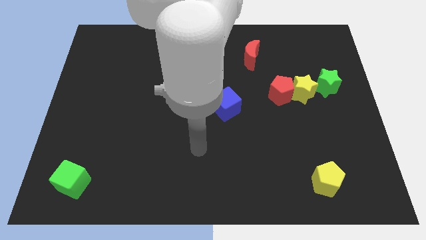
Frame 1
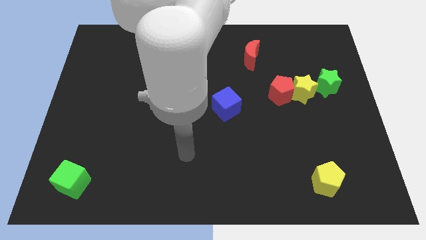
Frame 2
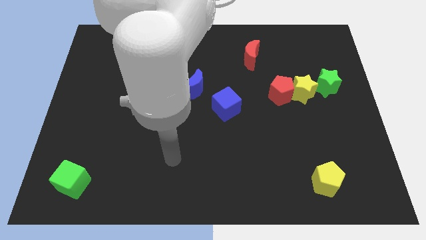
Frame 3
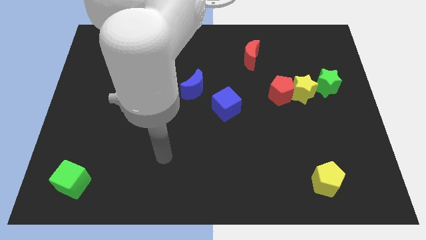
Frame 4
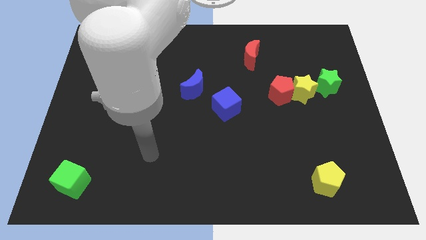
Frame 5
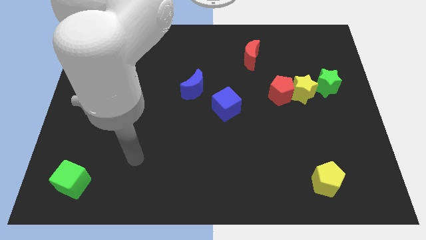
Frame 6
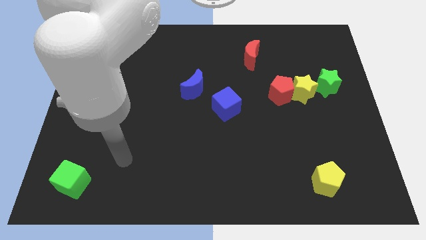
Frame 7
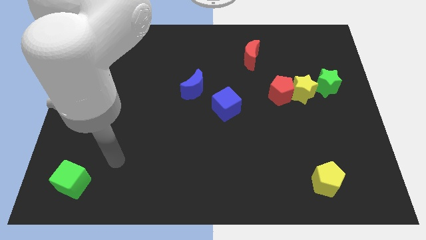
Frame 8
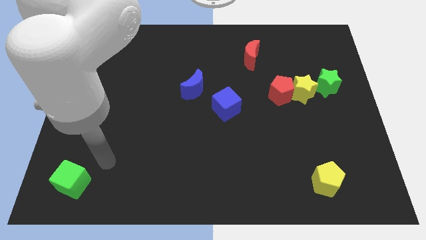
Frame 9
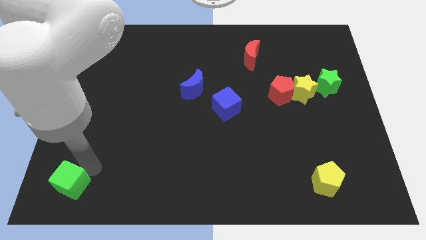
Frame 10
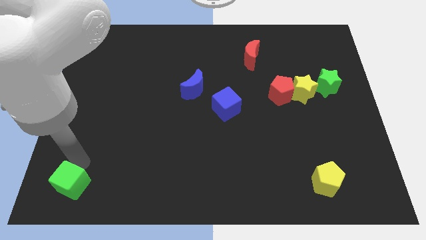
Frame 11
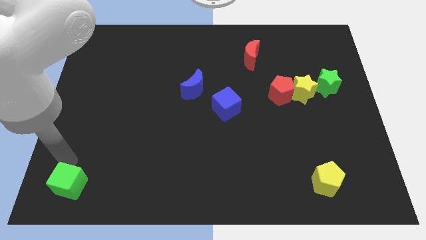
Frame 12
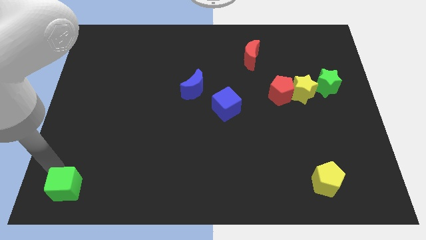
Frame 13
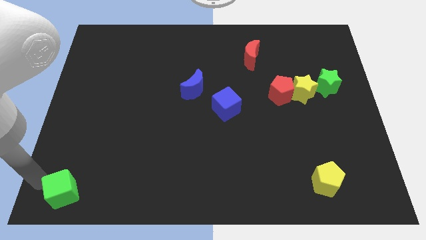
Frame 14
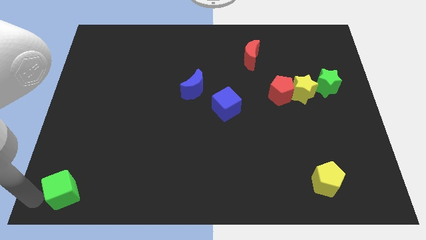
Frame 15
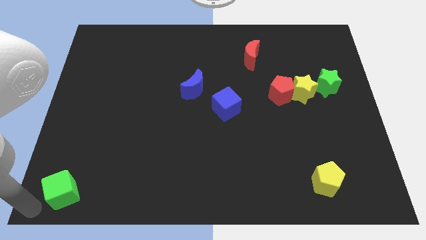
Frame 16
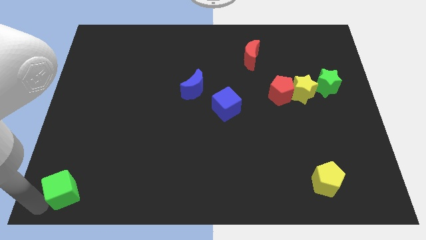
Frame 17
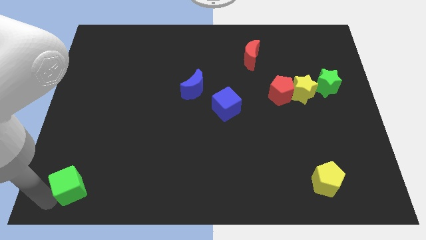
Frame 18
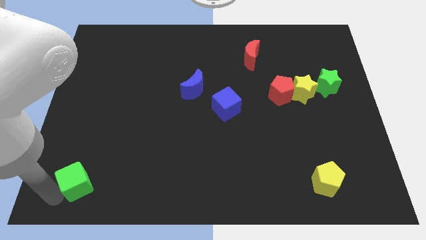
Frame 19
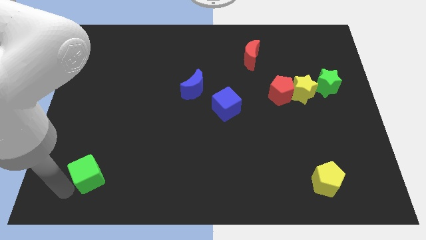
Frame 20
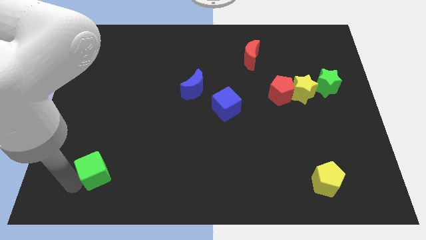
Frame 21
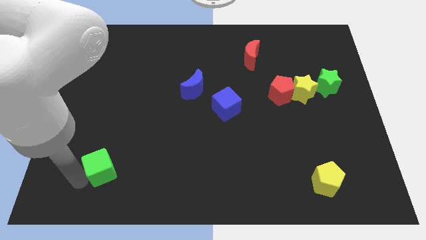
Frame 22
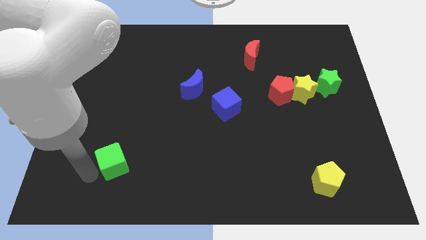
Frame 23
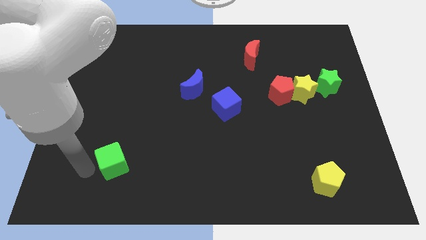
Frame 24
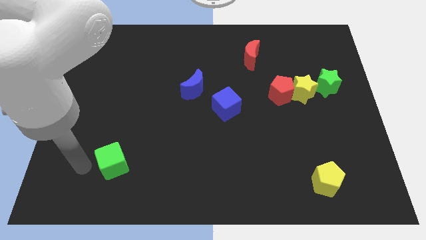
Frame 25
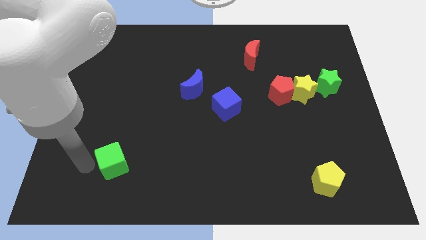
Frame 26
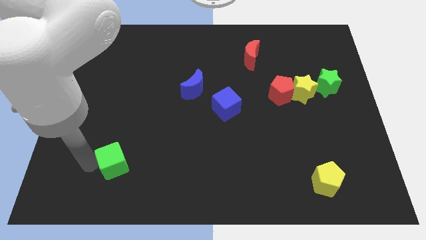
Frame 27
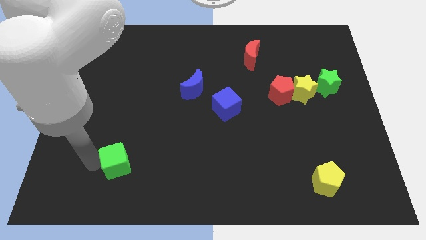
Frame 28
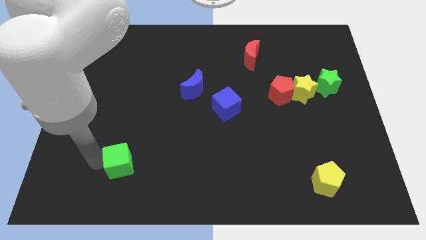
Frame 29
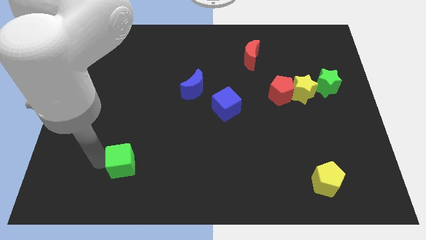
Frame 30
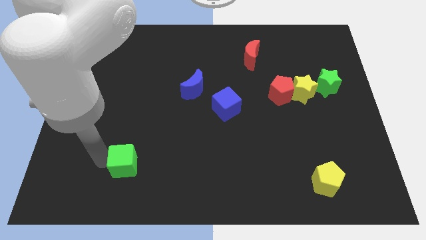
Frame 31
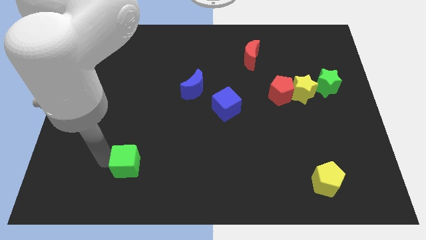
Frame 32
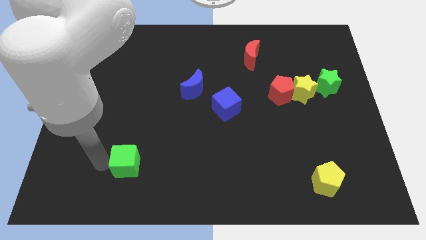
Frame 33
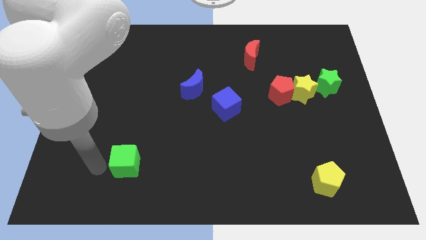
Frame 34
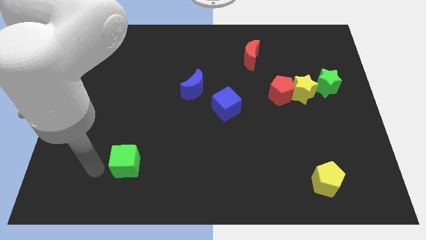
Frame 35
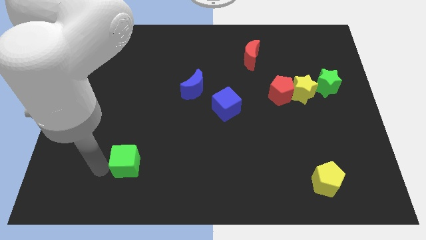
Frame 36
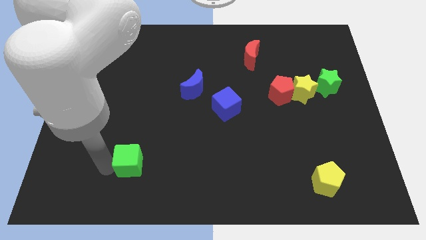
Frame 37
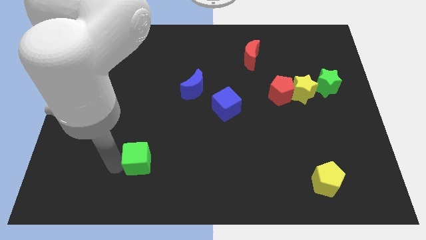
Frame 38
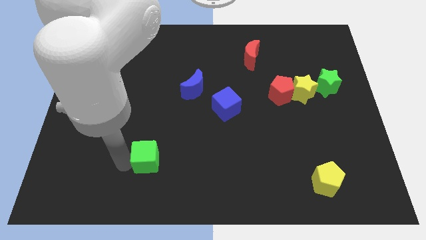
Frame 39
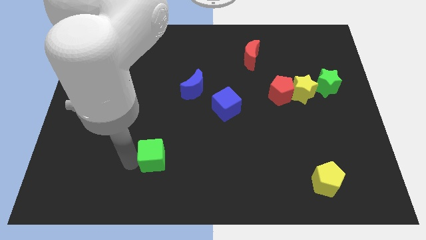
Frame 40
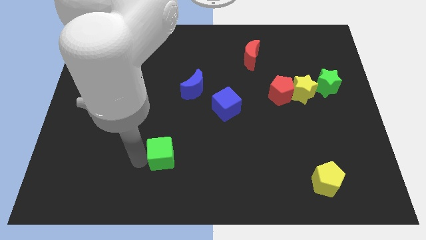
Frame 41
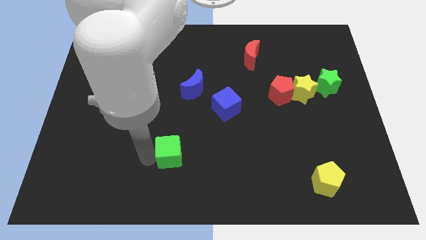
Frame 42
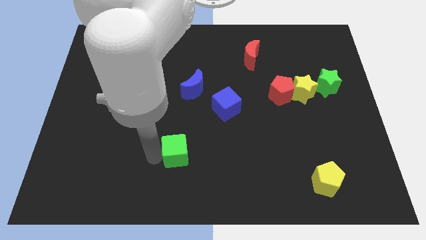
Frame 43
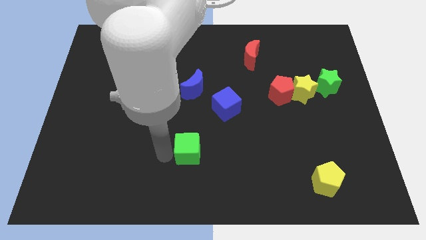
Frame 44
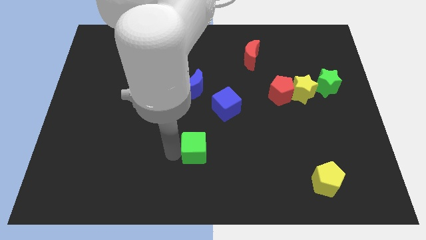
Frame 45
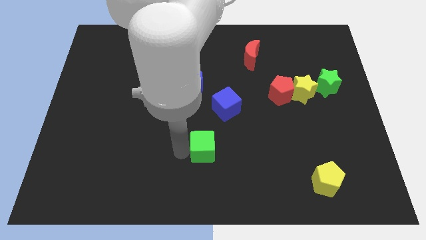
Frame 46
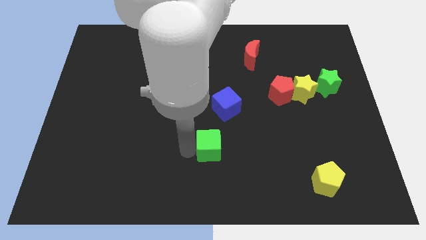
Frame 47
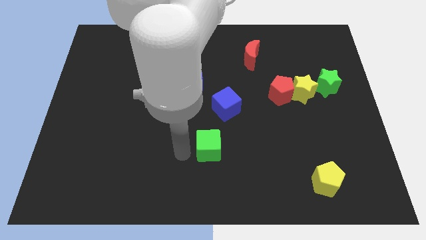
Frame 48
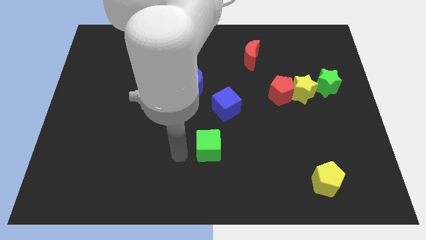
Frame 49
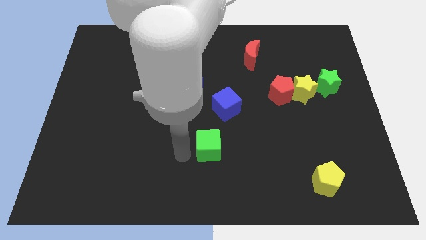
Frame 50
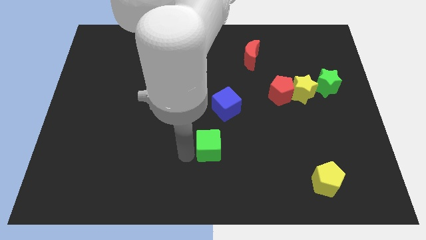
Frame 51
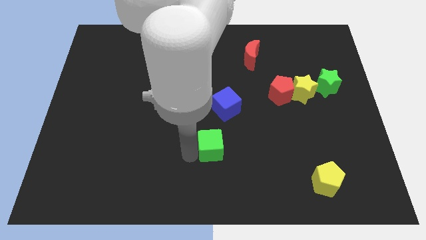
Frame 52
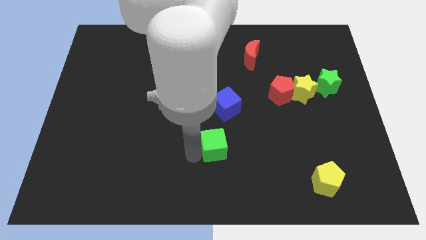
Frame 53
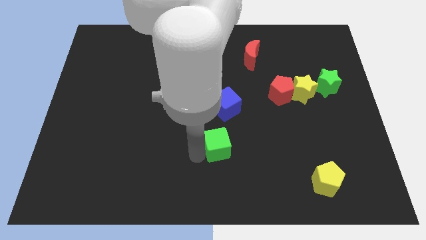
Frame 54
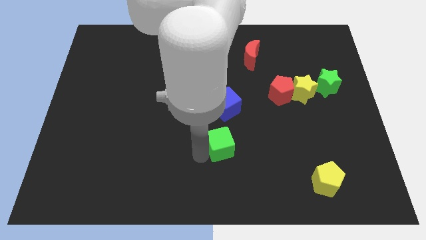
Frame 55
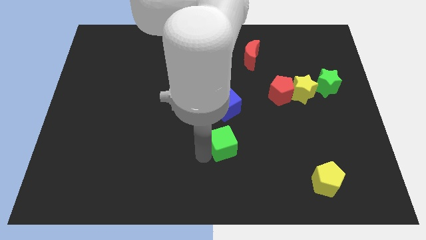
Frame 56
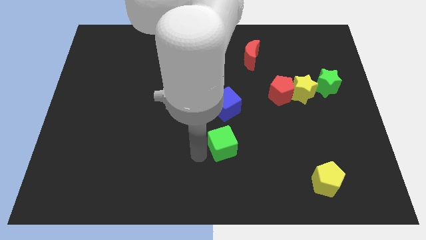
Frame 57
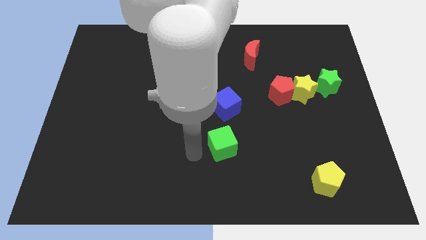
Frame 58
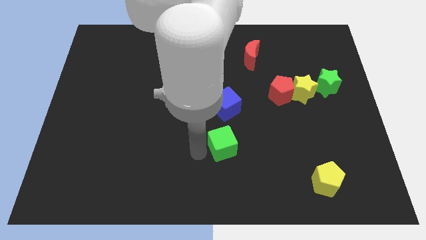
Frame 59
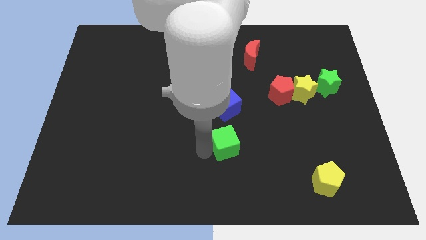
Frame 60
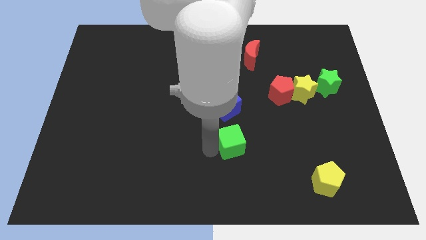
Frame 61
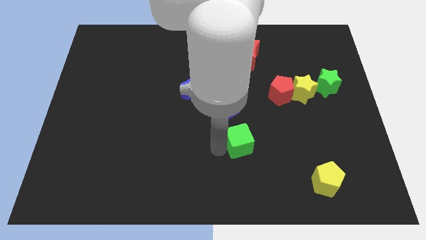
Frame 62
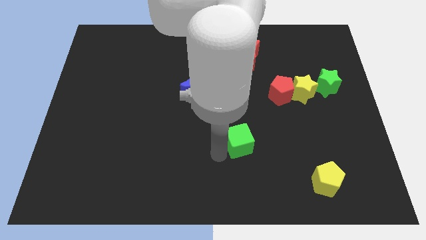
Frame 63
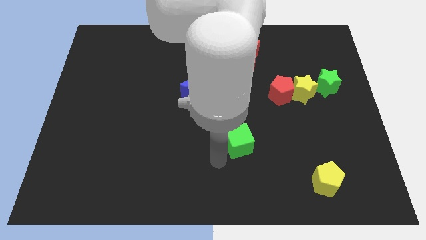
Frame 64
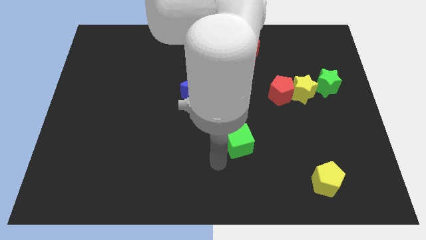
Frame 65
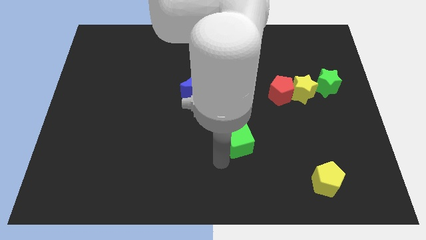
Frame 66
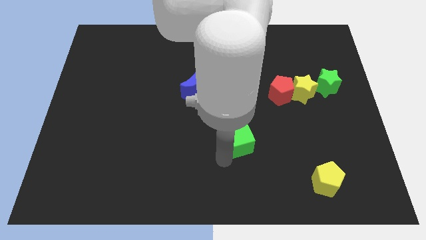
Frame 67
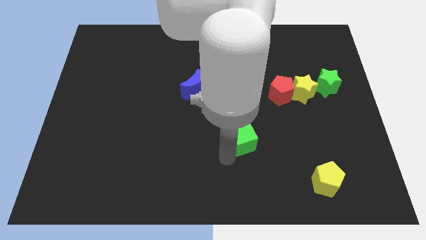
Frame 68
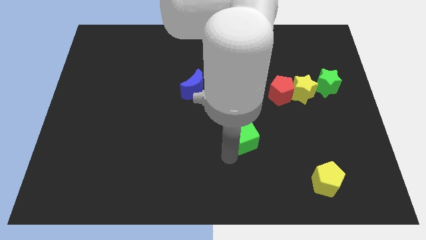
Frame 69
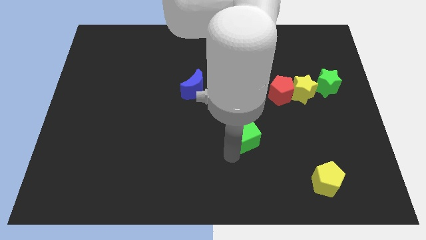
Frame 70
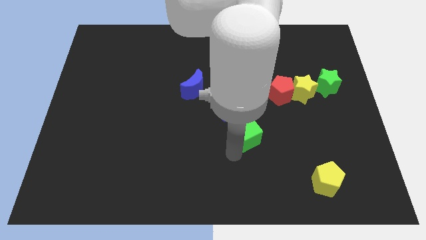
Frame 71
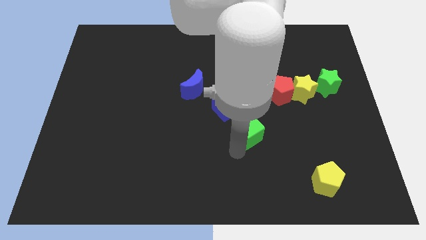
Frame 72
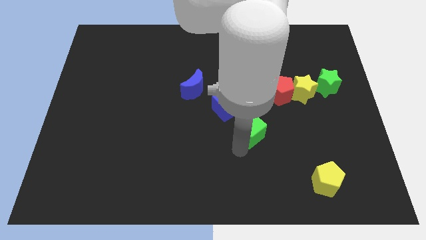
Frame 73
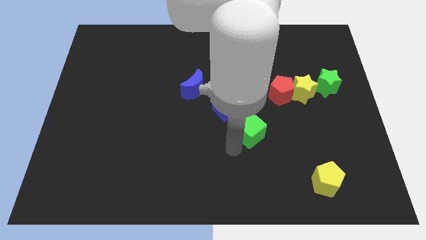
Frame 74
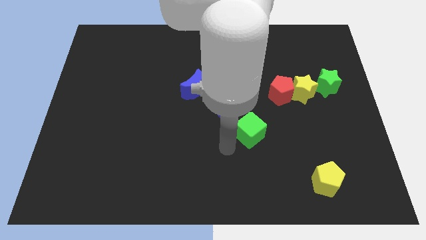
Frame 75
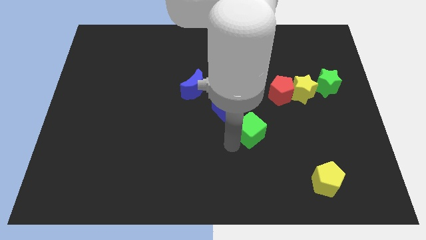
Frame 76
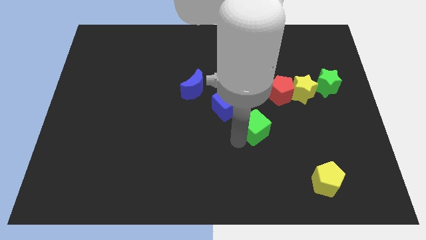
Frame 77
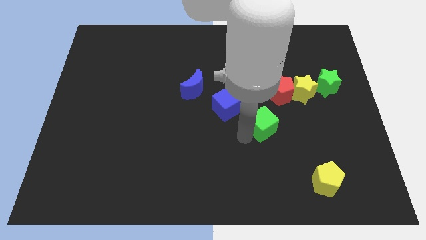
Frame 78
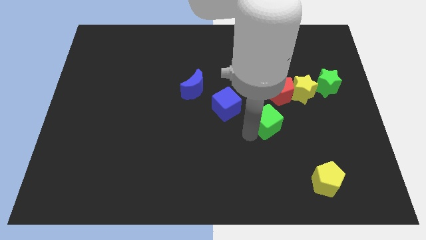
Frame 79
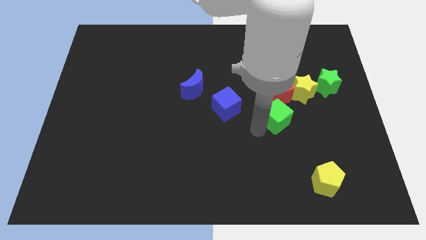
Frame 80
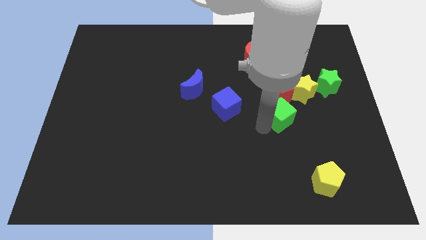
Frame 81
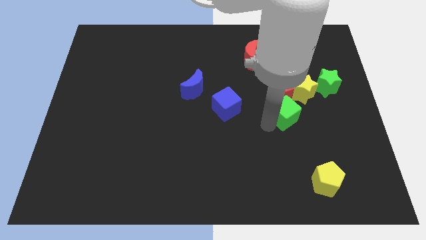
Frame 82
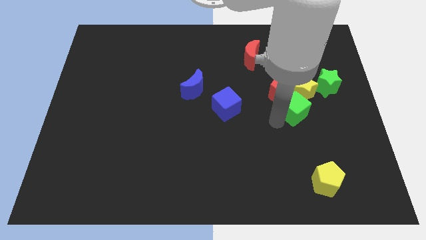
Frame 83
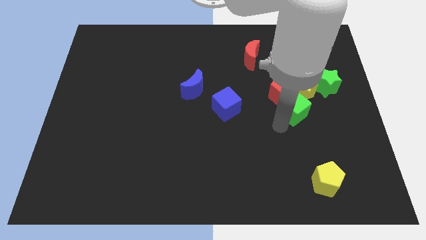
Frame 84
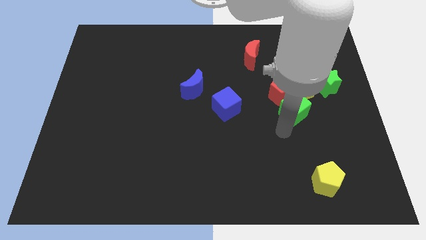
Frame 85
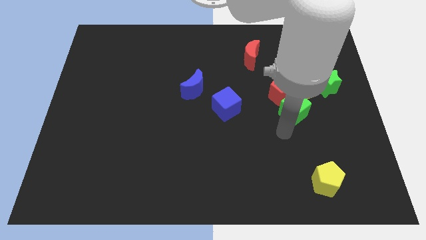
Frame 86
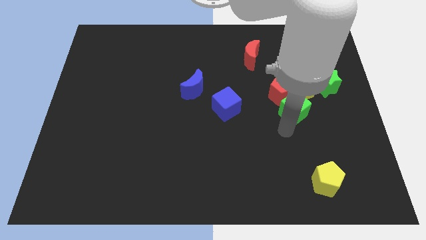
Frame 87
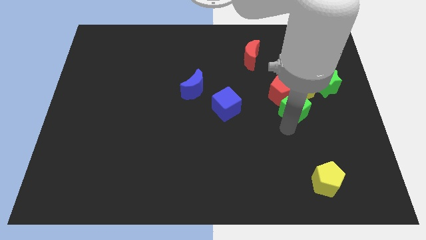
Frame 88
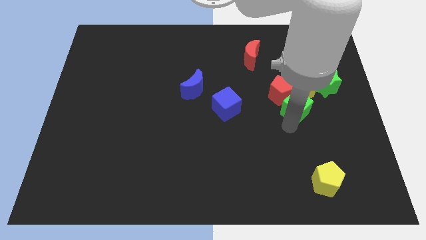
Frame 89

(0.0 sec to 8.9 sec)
push the green cube close to the yellow star
